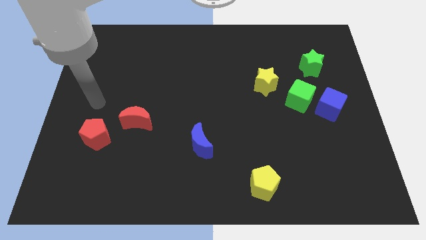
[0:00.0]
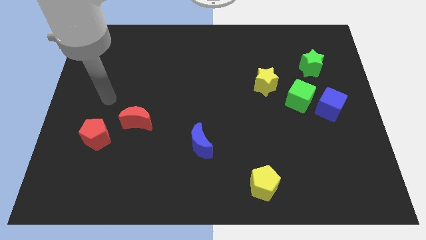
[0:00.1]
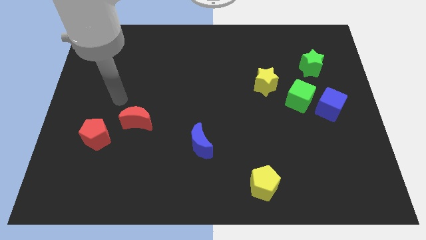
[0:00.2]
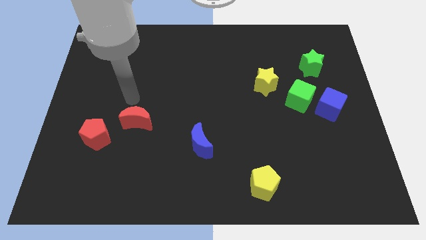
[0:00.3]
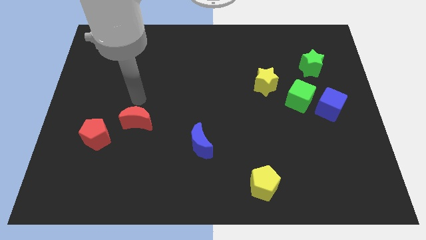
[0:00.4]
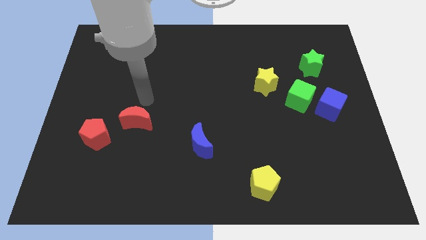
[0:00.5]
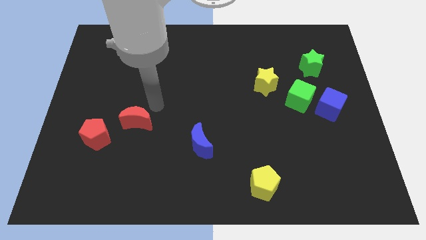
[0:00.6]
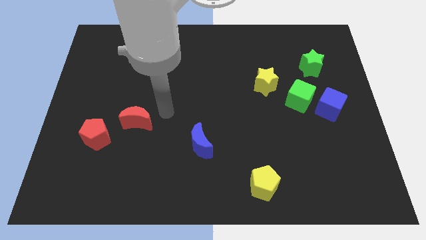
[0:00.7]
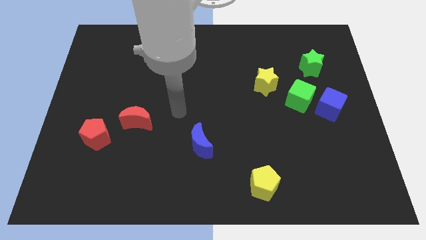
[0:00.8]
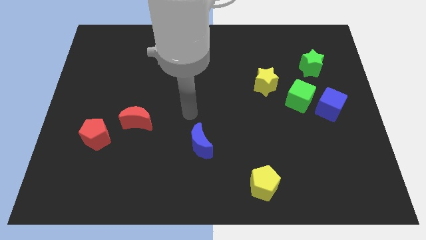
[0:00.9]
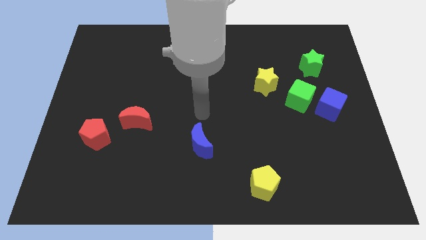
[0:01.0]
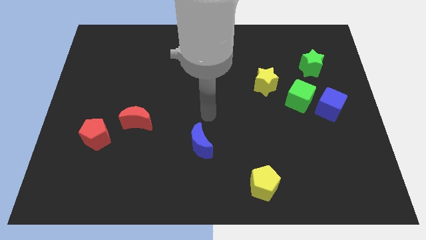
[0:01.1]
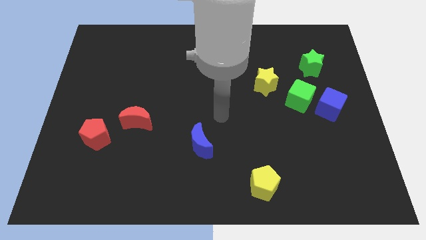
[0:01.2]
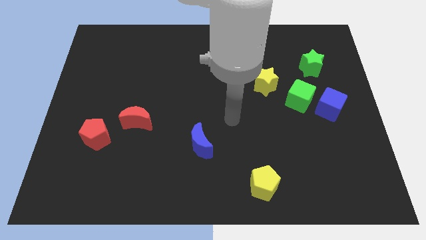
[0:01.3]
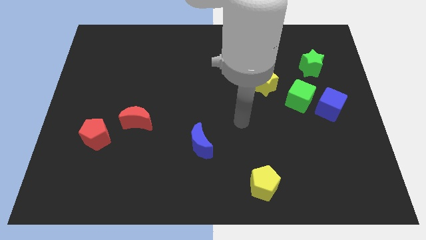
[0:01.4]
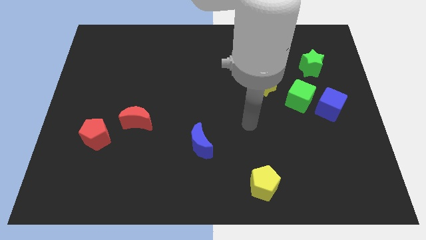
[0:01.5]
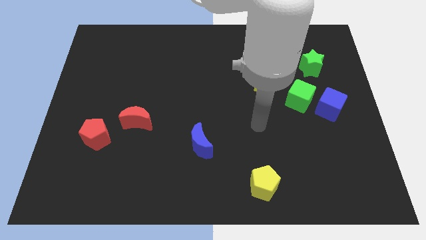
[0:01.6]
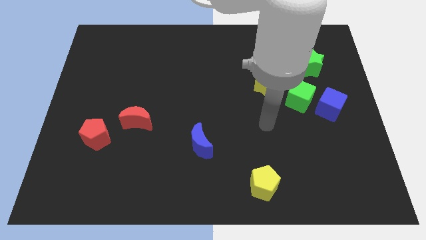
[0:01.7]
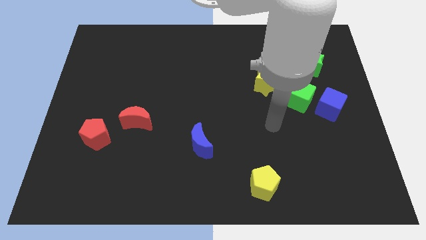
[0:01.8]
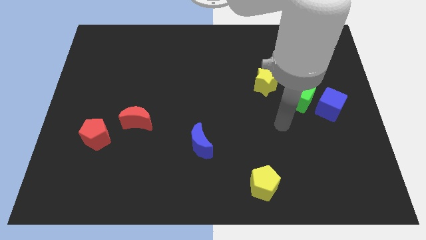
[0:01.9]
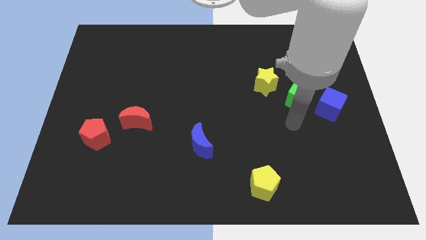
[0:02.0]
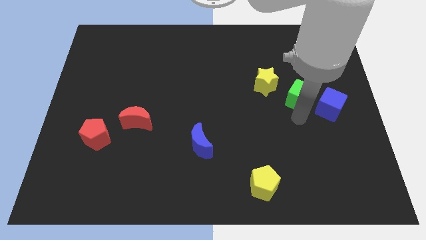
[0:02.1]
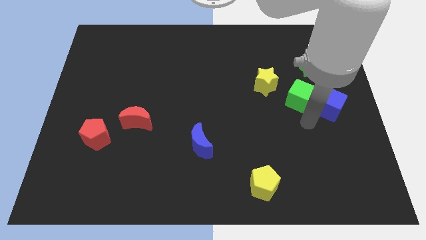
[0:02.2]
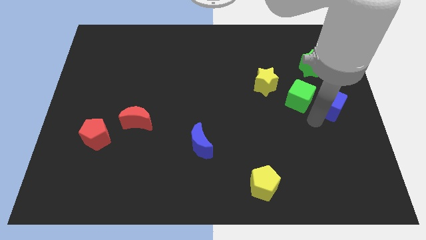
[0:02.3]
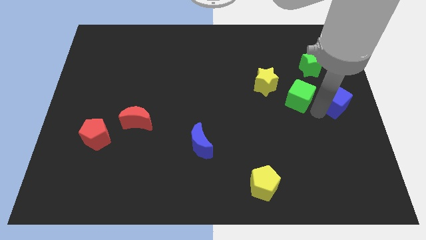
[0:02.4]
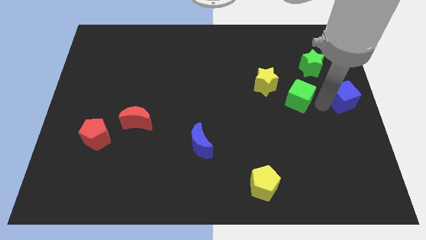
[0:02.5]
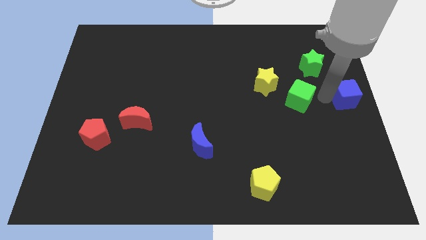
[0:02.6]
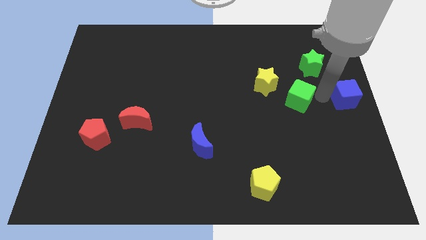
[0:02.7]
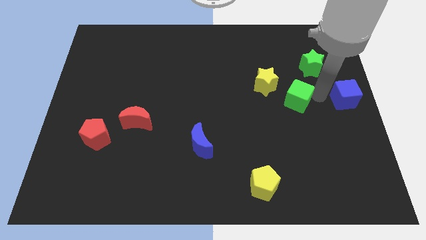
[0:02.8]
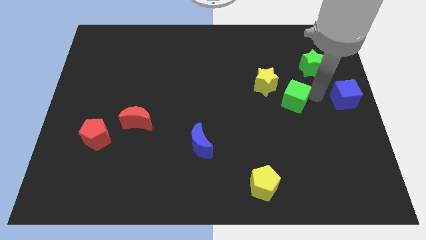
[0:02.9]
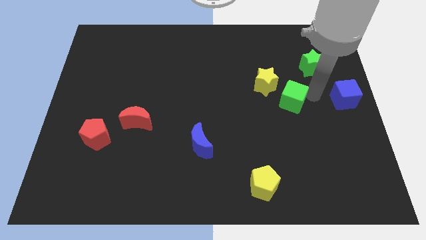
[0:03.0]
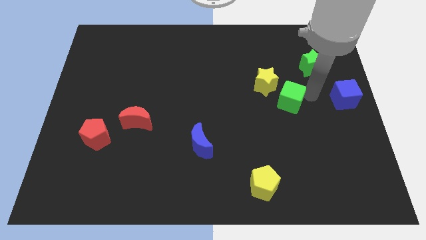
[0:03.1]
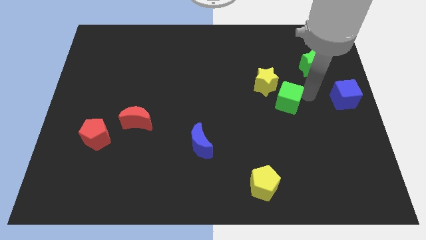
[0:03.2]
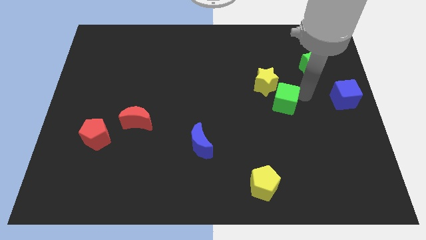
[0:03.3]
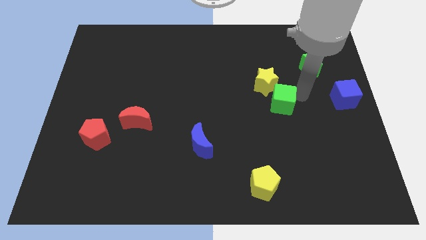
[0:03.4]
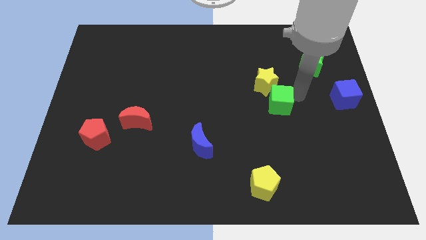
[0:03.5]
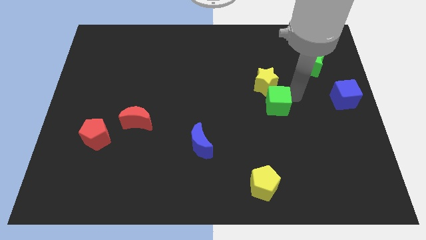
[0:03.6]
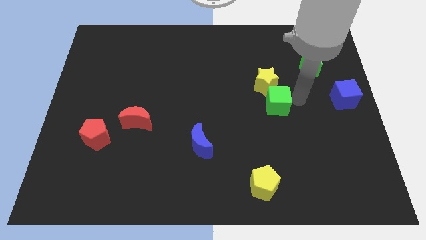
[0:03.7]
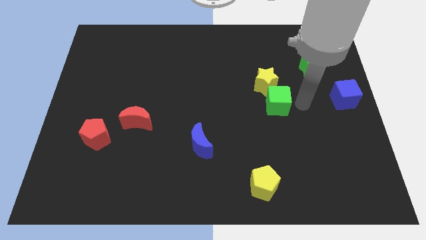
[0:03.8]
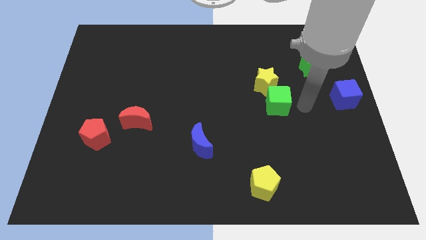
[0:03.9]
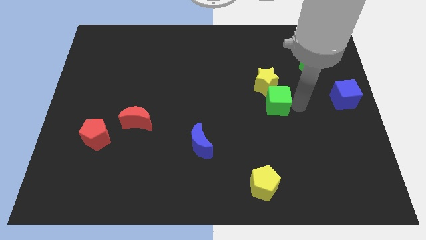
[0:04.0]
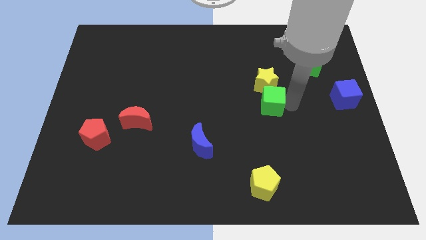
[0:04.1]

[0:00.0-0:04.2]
push the green cube a bit to the left

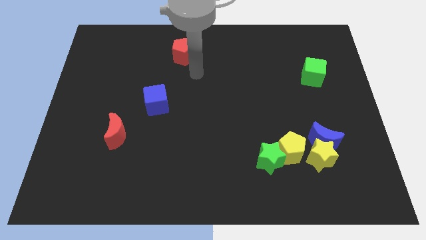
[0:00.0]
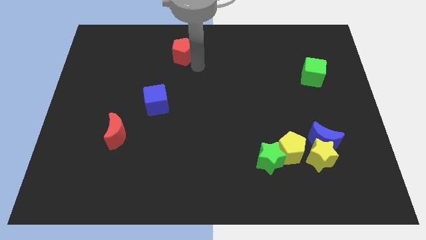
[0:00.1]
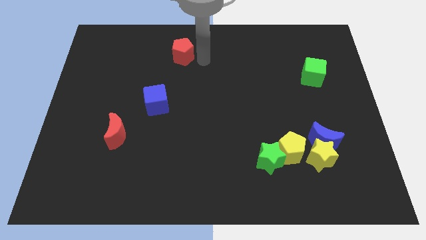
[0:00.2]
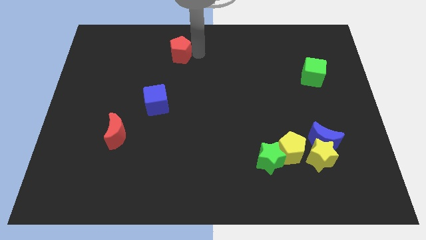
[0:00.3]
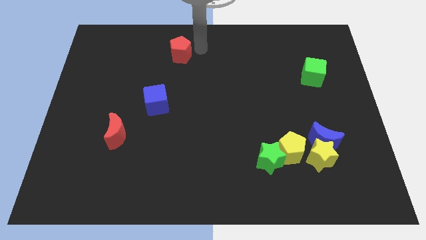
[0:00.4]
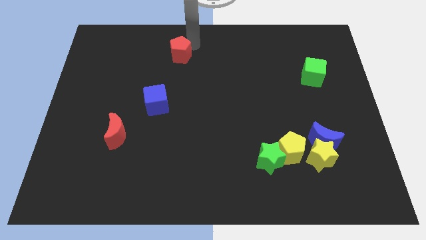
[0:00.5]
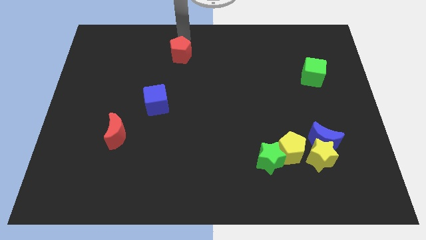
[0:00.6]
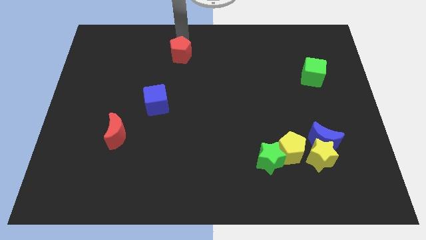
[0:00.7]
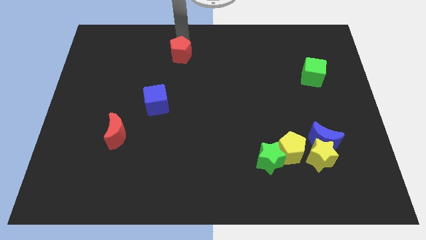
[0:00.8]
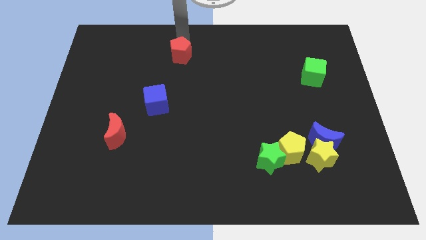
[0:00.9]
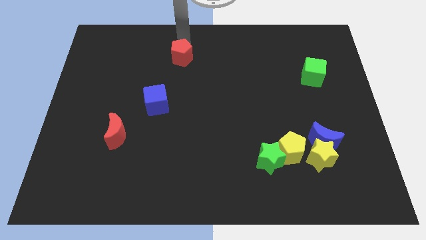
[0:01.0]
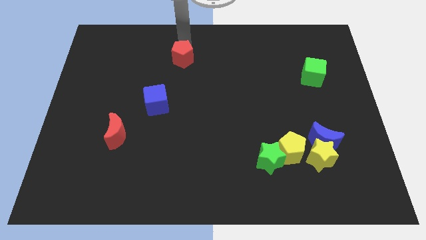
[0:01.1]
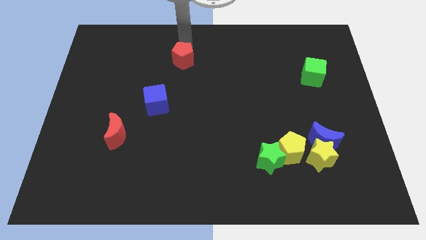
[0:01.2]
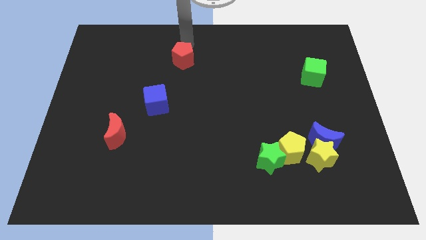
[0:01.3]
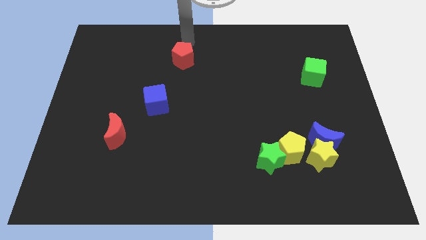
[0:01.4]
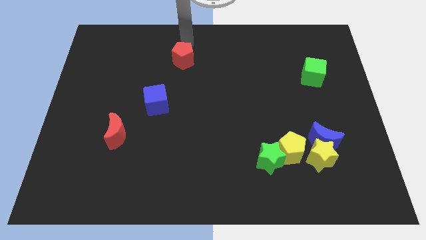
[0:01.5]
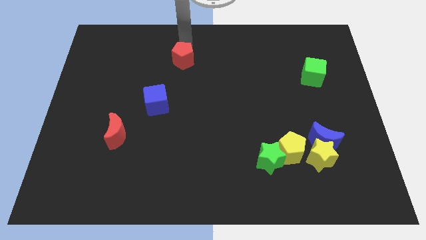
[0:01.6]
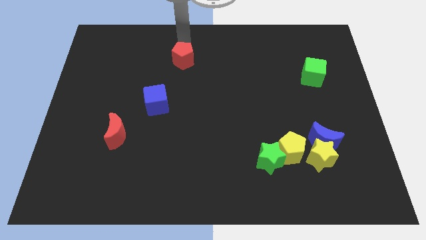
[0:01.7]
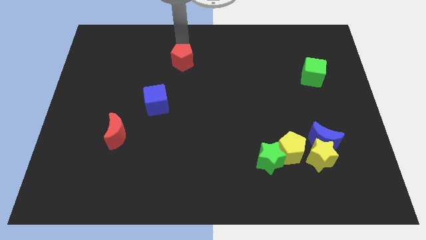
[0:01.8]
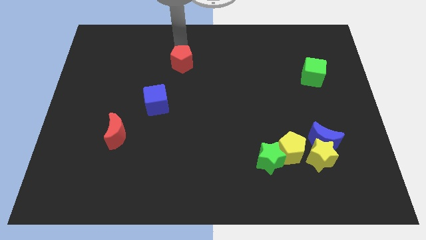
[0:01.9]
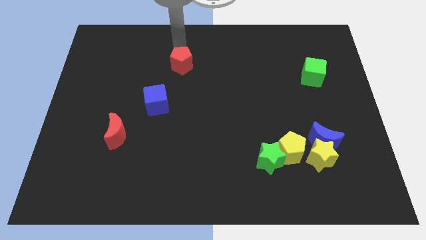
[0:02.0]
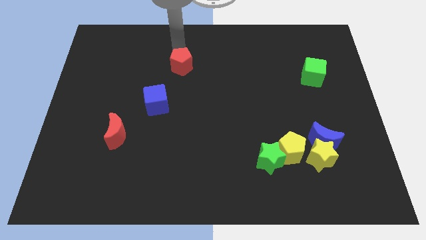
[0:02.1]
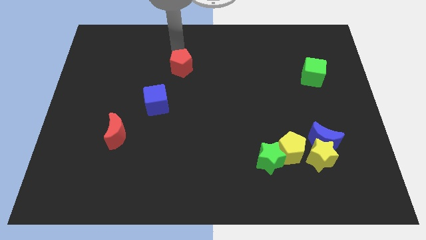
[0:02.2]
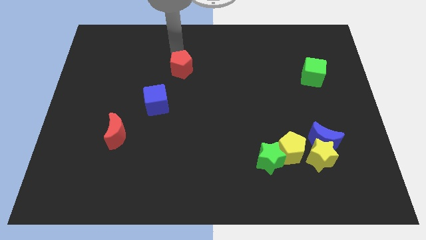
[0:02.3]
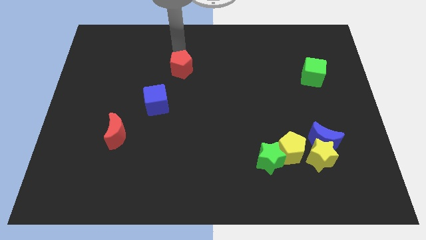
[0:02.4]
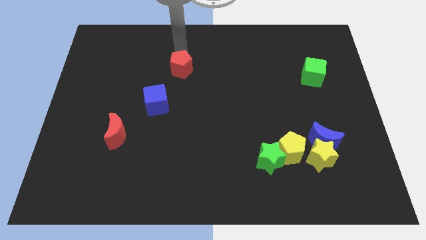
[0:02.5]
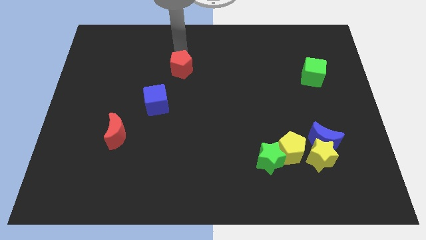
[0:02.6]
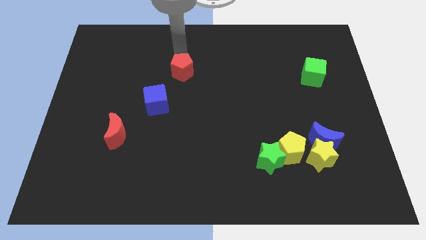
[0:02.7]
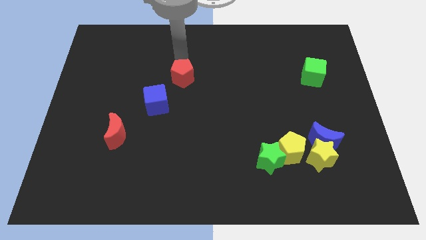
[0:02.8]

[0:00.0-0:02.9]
move the red pentagon down a bit

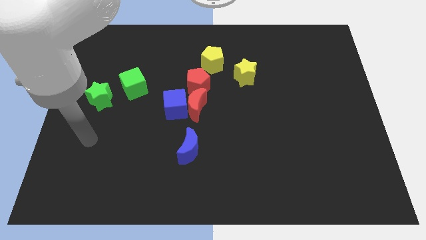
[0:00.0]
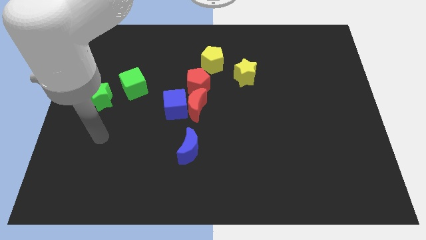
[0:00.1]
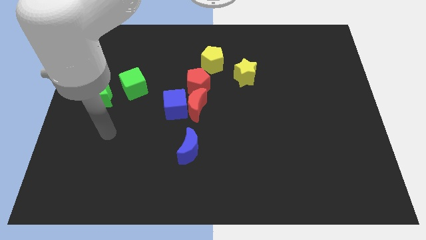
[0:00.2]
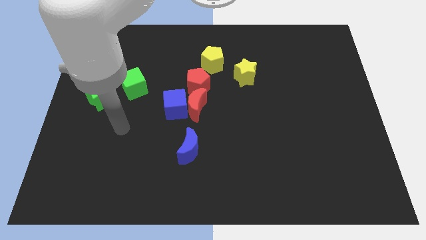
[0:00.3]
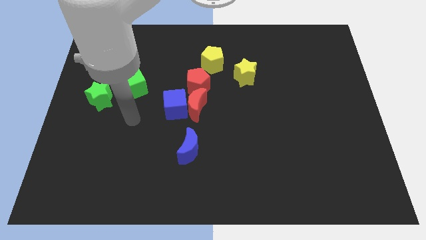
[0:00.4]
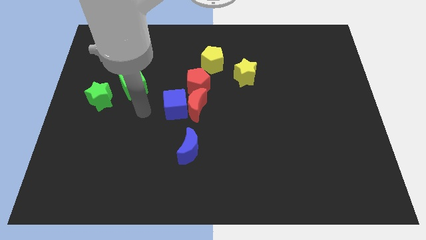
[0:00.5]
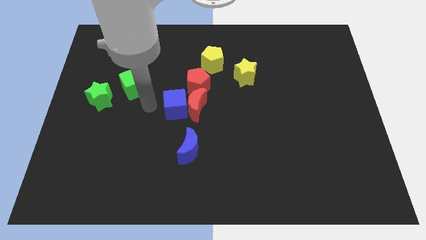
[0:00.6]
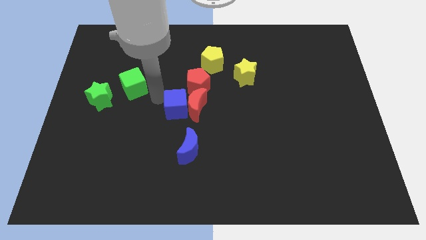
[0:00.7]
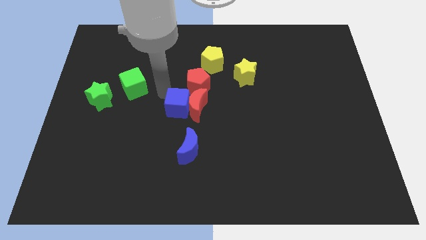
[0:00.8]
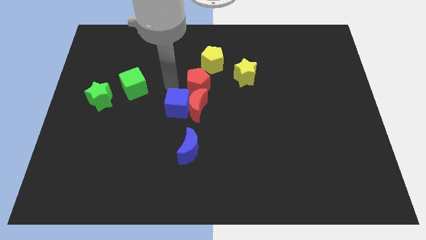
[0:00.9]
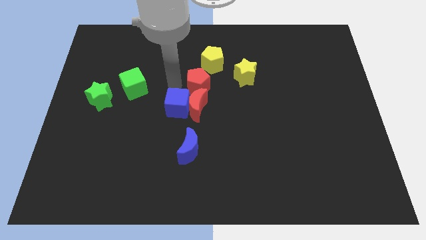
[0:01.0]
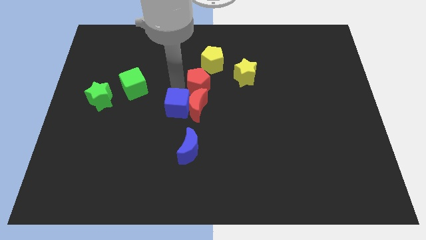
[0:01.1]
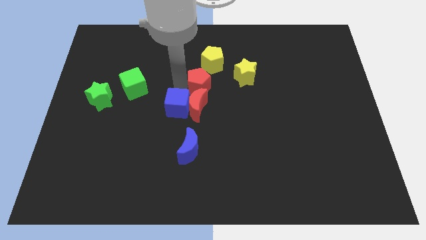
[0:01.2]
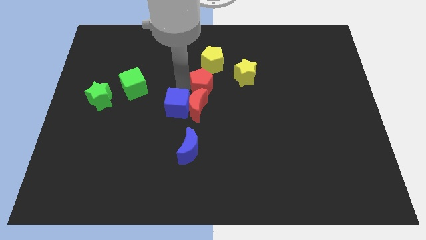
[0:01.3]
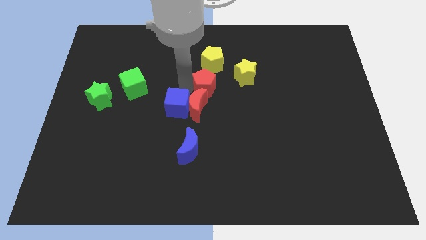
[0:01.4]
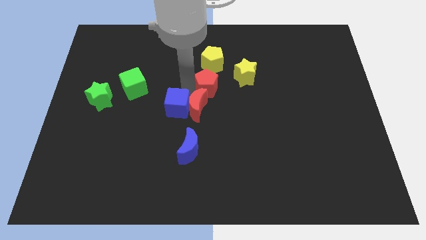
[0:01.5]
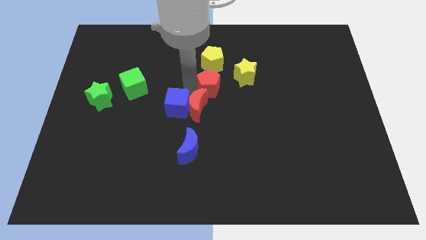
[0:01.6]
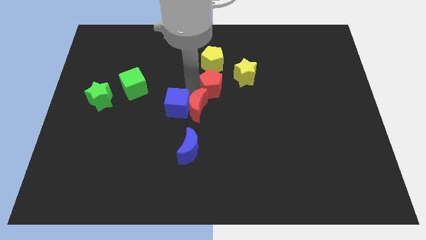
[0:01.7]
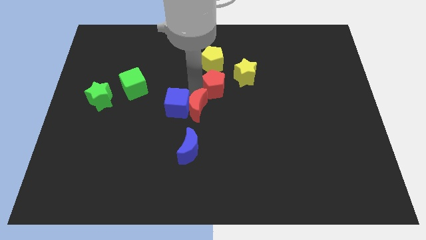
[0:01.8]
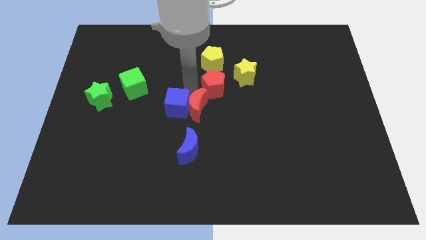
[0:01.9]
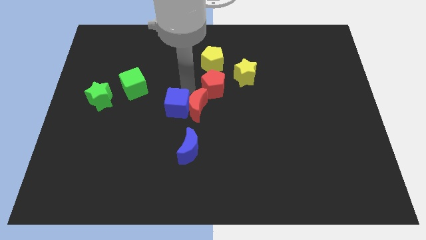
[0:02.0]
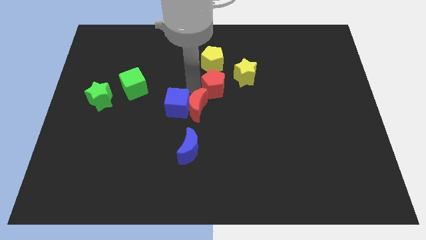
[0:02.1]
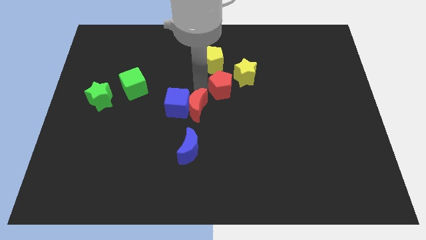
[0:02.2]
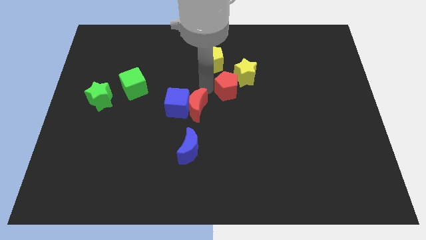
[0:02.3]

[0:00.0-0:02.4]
slide the red pentagon right a little
